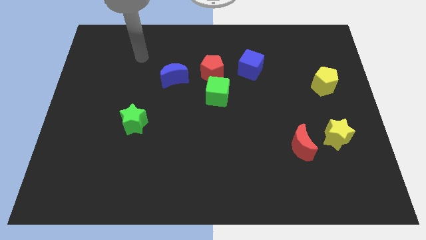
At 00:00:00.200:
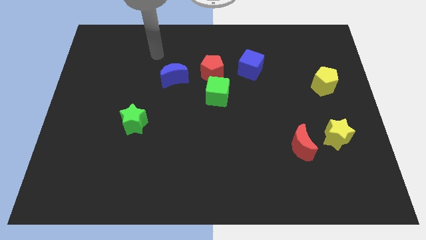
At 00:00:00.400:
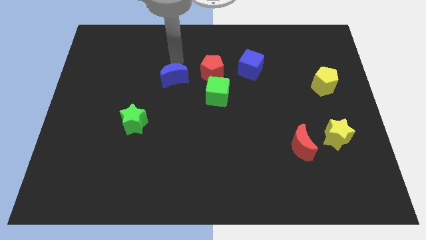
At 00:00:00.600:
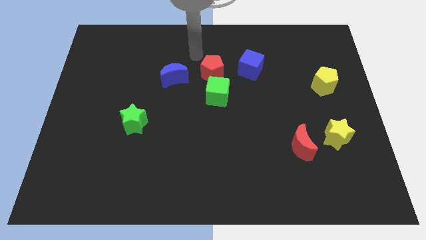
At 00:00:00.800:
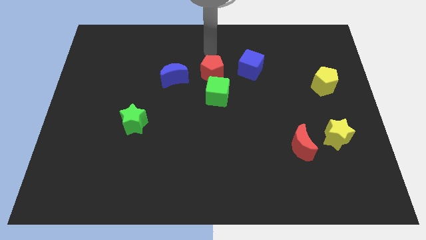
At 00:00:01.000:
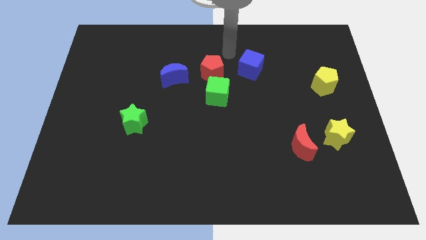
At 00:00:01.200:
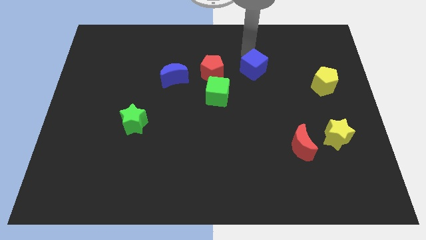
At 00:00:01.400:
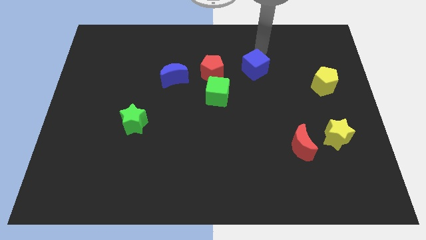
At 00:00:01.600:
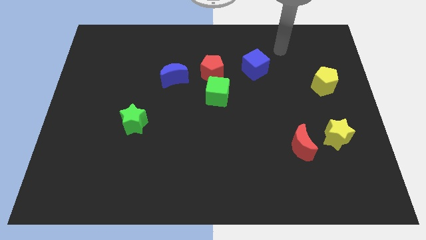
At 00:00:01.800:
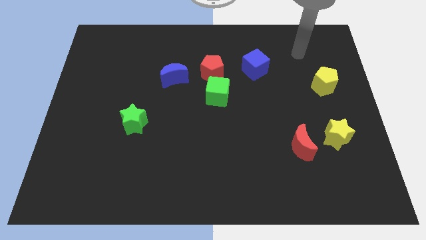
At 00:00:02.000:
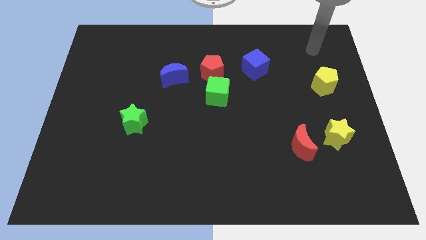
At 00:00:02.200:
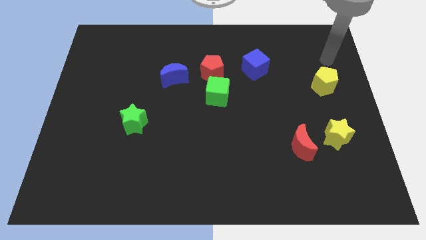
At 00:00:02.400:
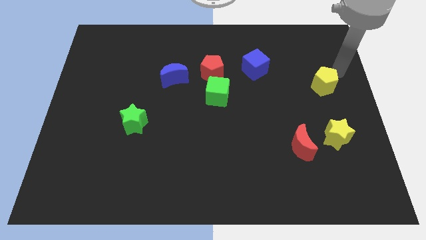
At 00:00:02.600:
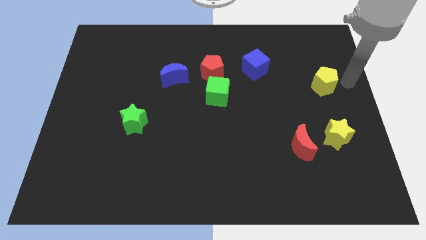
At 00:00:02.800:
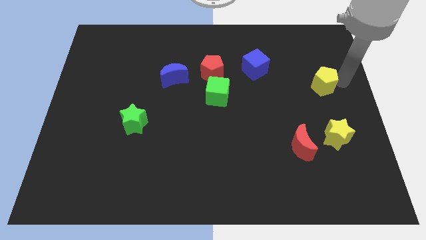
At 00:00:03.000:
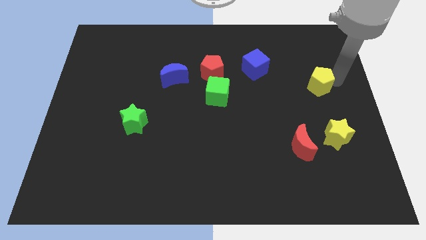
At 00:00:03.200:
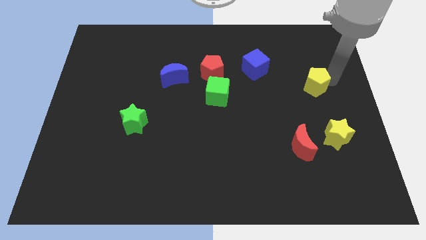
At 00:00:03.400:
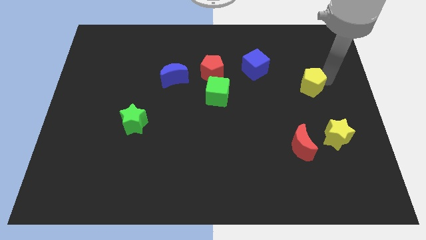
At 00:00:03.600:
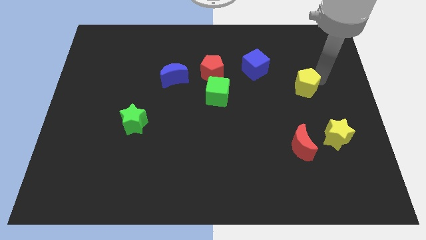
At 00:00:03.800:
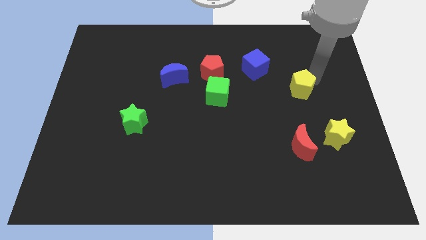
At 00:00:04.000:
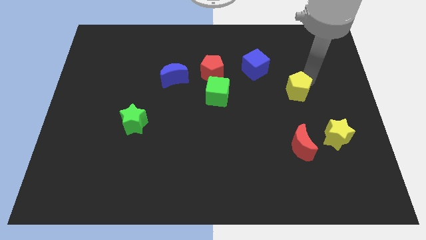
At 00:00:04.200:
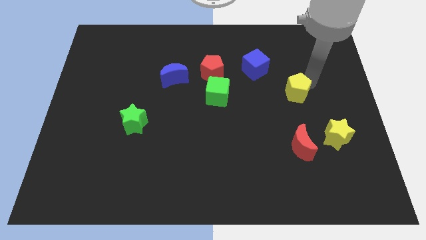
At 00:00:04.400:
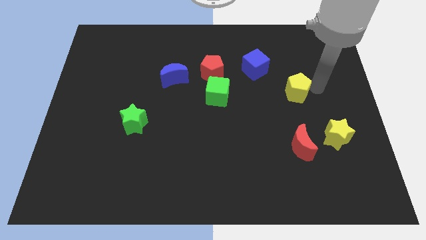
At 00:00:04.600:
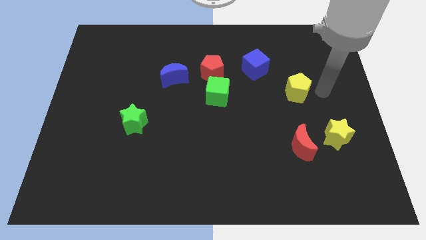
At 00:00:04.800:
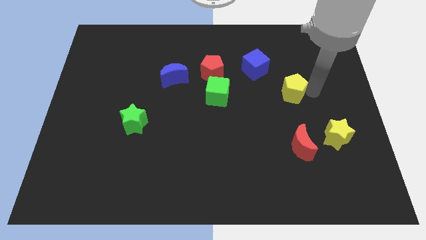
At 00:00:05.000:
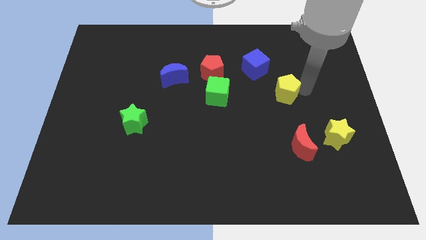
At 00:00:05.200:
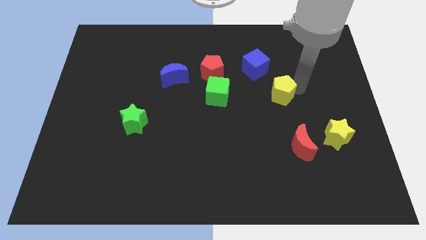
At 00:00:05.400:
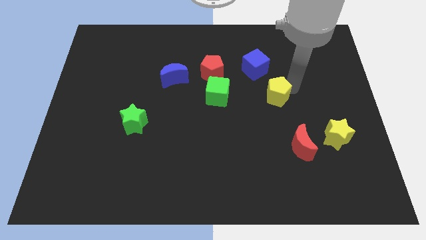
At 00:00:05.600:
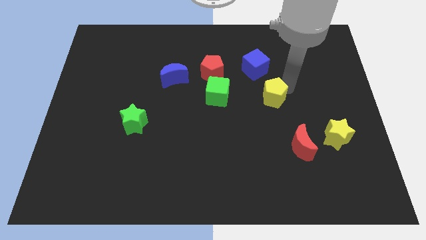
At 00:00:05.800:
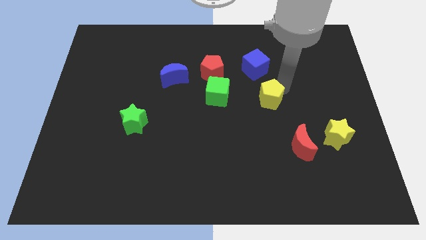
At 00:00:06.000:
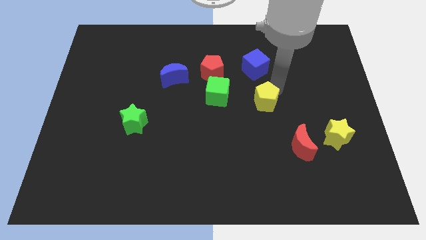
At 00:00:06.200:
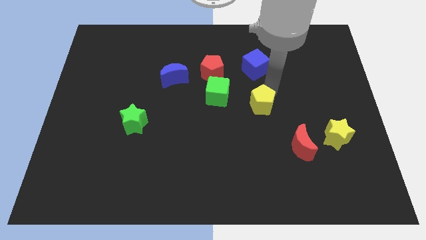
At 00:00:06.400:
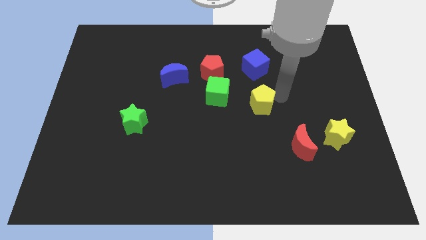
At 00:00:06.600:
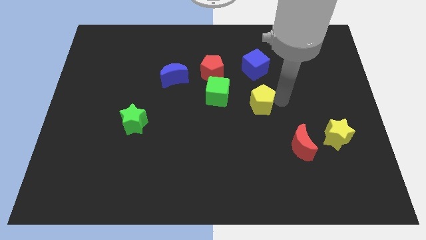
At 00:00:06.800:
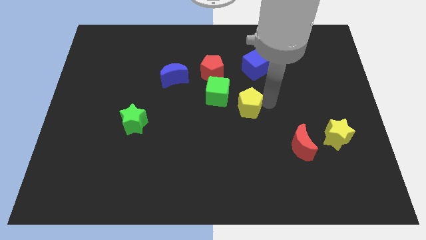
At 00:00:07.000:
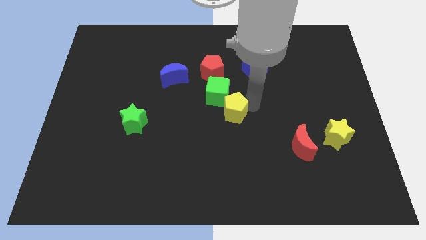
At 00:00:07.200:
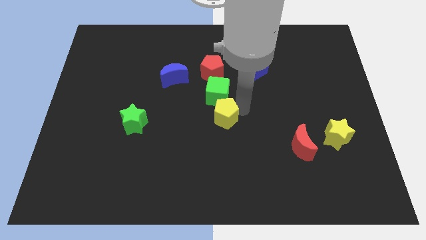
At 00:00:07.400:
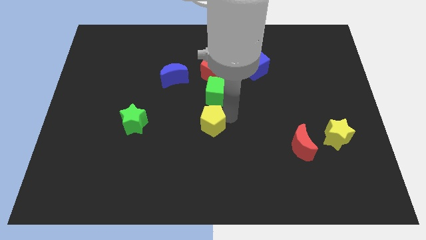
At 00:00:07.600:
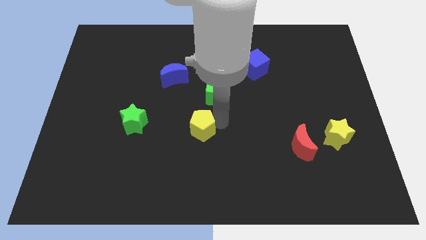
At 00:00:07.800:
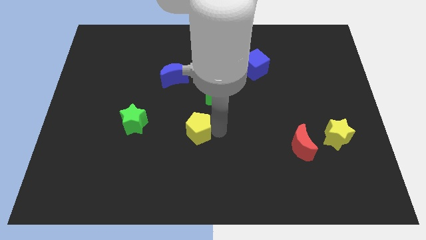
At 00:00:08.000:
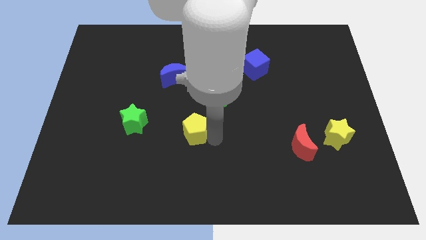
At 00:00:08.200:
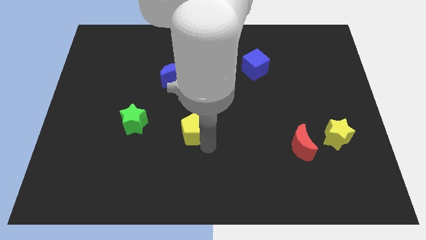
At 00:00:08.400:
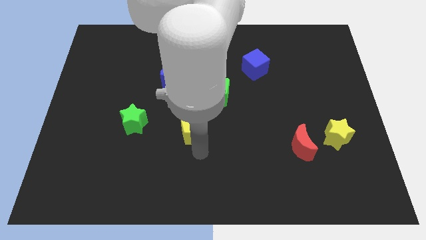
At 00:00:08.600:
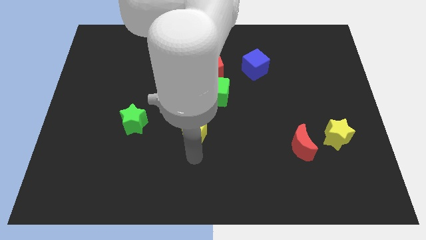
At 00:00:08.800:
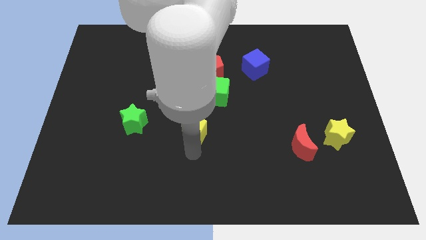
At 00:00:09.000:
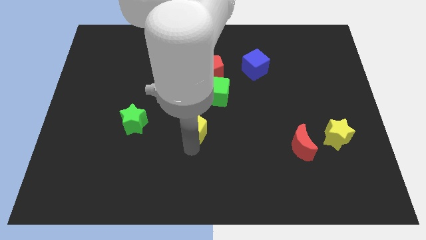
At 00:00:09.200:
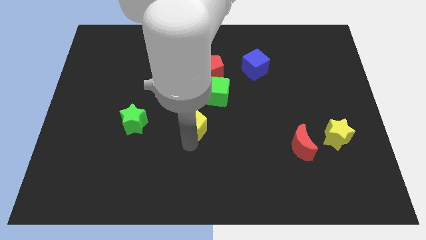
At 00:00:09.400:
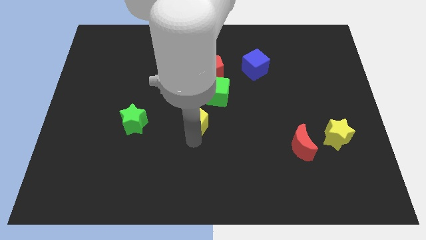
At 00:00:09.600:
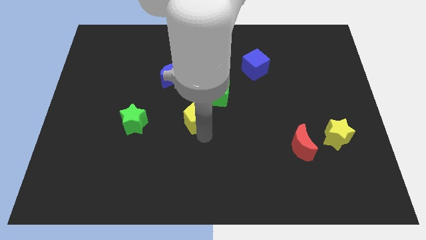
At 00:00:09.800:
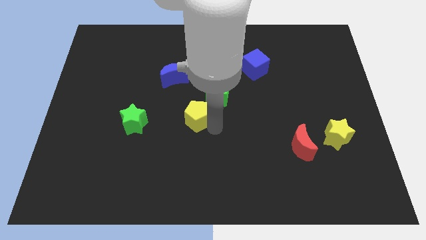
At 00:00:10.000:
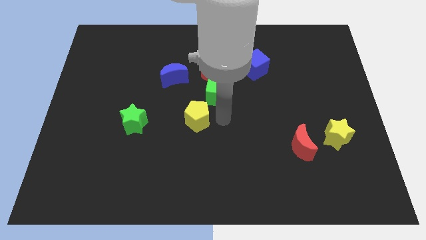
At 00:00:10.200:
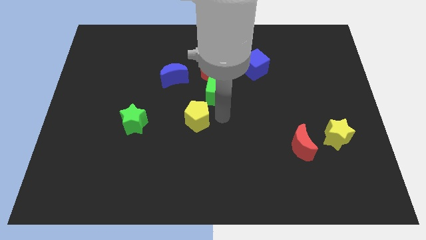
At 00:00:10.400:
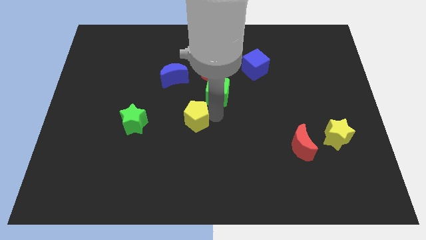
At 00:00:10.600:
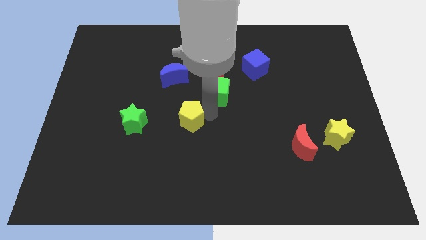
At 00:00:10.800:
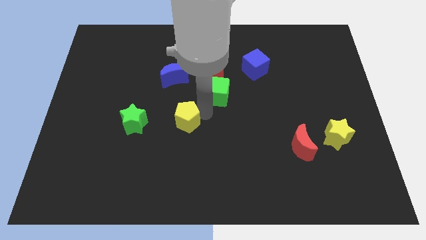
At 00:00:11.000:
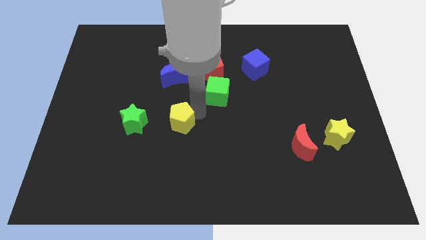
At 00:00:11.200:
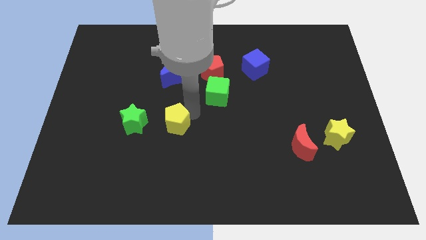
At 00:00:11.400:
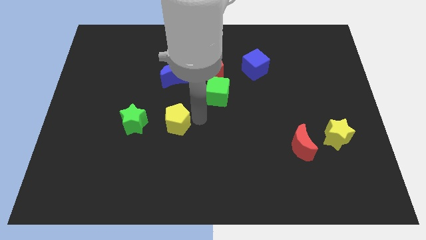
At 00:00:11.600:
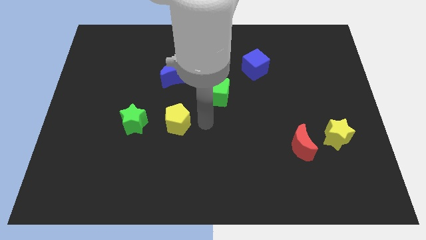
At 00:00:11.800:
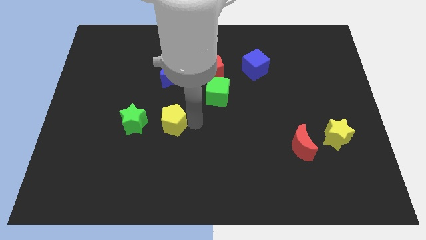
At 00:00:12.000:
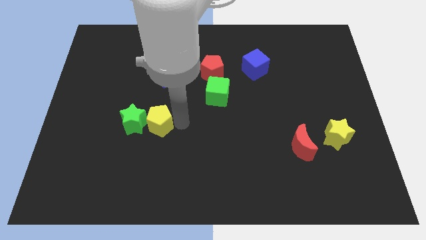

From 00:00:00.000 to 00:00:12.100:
put the yellow pentagon to the green star

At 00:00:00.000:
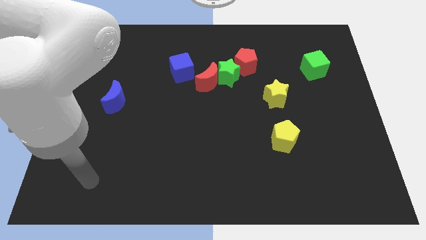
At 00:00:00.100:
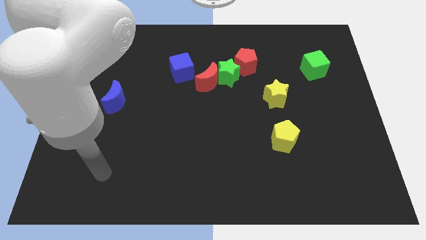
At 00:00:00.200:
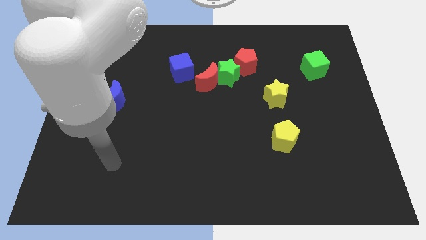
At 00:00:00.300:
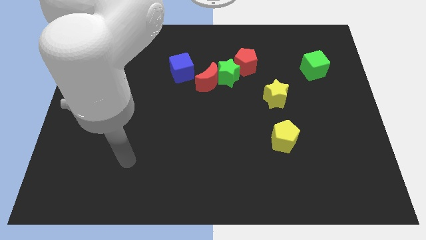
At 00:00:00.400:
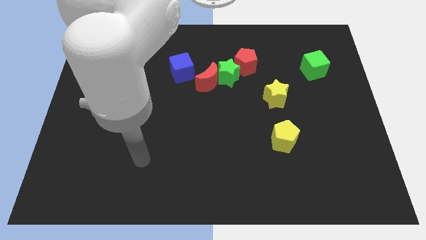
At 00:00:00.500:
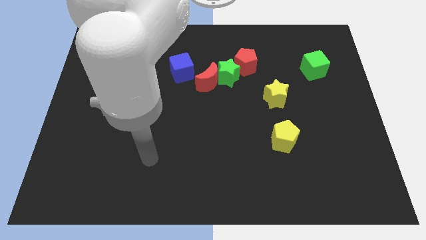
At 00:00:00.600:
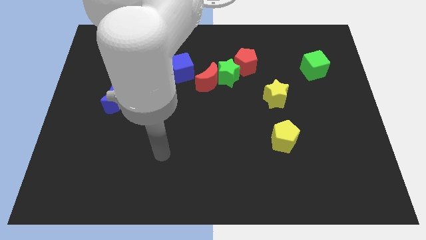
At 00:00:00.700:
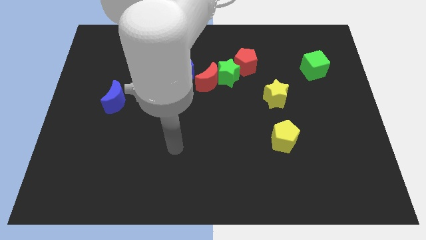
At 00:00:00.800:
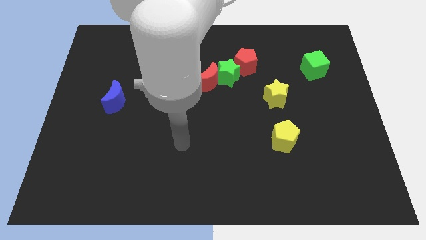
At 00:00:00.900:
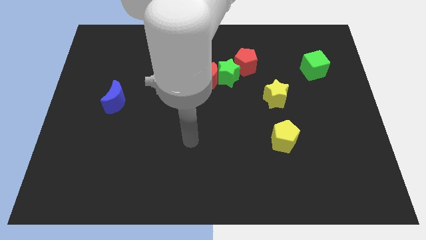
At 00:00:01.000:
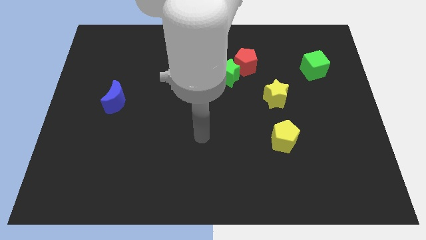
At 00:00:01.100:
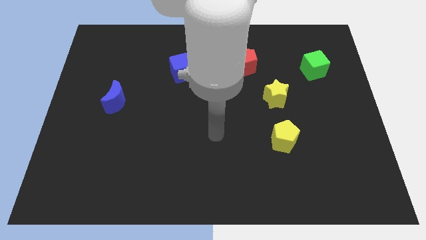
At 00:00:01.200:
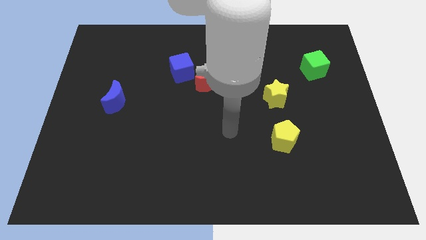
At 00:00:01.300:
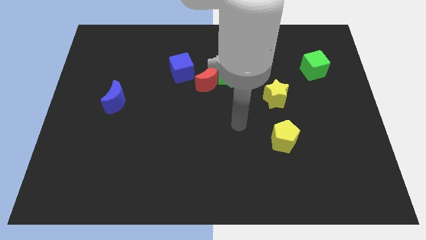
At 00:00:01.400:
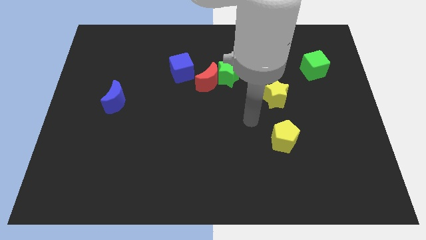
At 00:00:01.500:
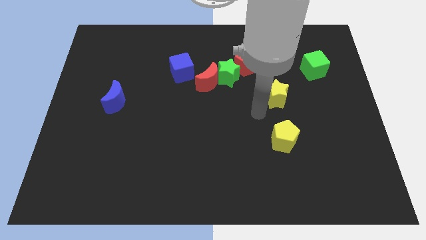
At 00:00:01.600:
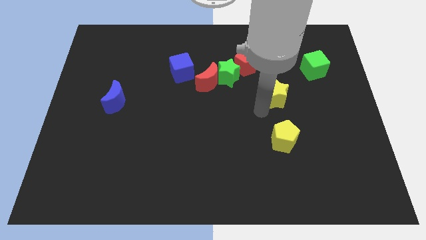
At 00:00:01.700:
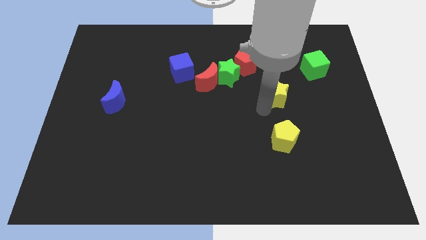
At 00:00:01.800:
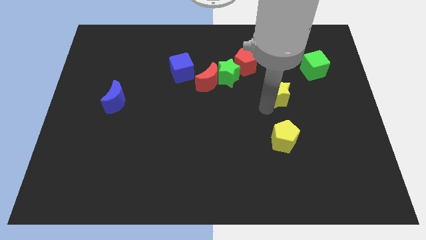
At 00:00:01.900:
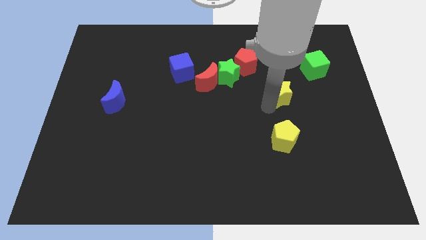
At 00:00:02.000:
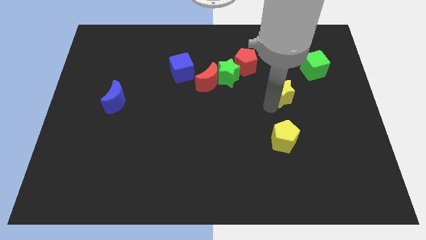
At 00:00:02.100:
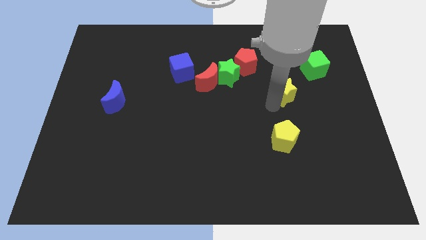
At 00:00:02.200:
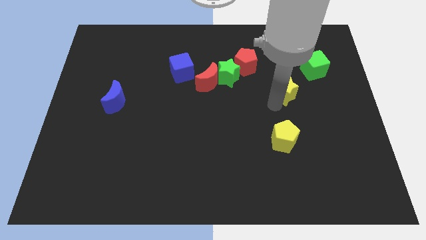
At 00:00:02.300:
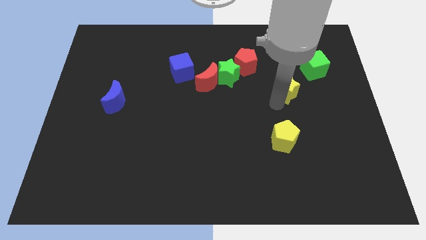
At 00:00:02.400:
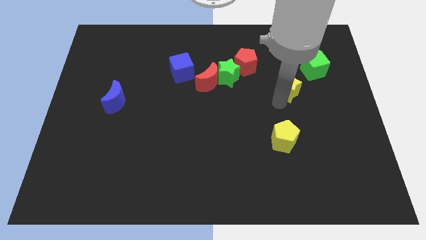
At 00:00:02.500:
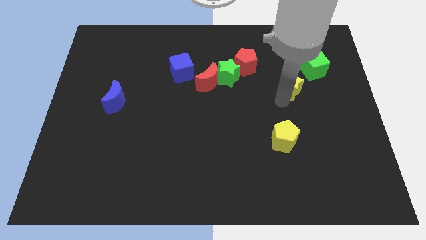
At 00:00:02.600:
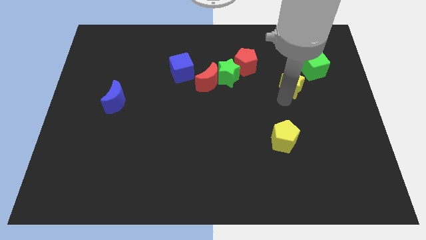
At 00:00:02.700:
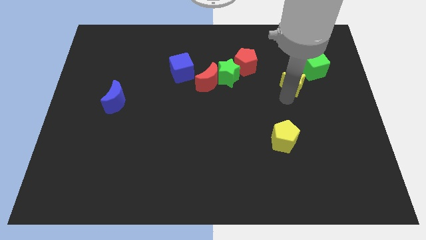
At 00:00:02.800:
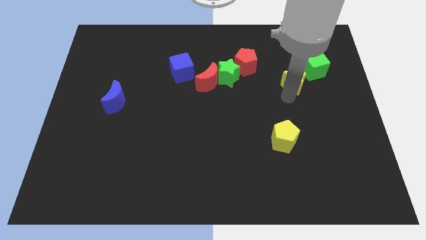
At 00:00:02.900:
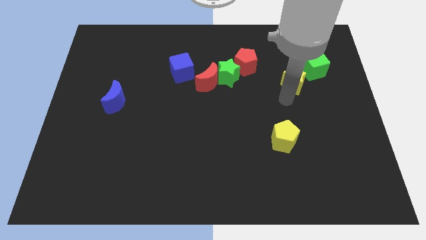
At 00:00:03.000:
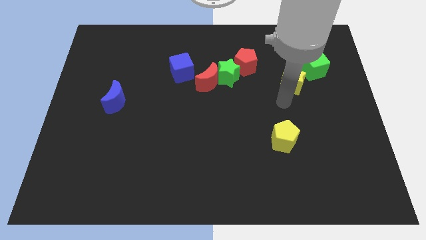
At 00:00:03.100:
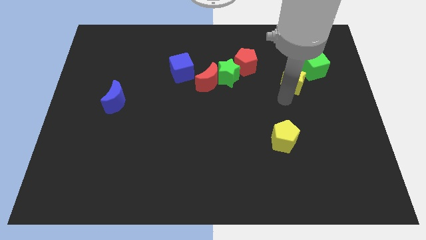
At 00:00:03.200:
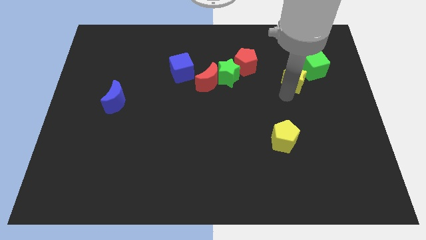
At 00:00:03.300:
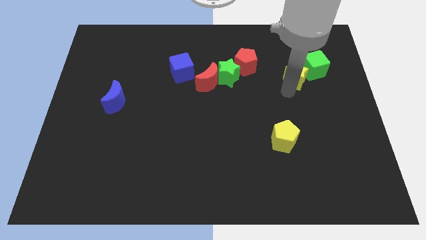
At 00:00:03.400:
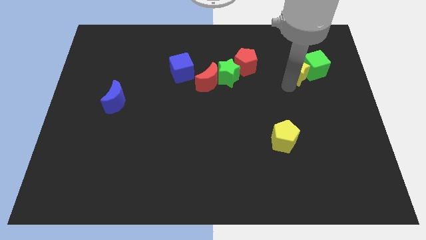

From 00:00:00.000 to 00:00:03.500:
slide the yellow star to the green cube
